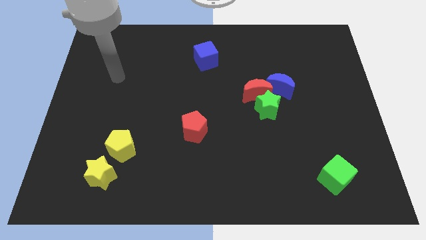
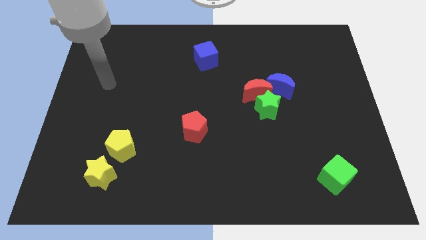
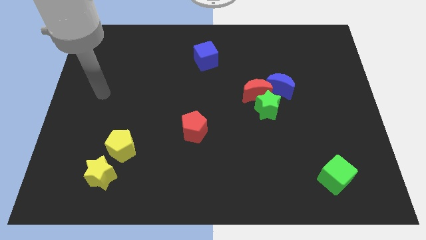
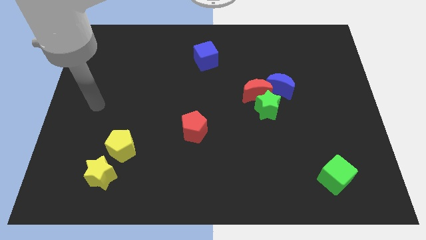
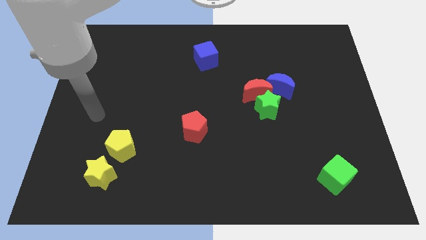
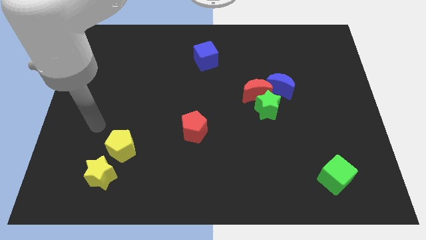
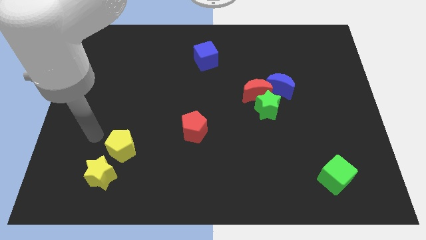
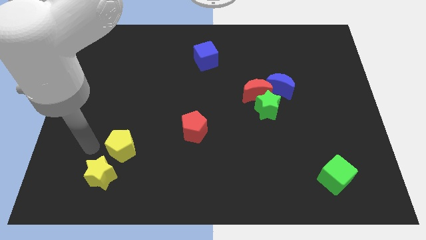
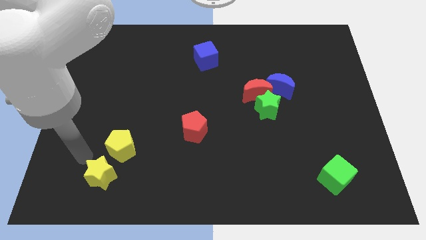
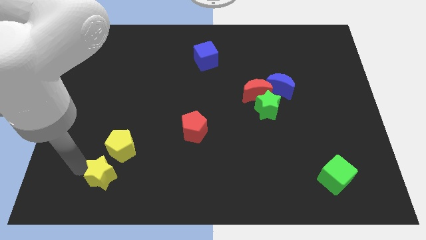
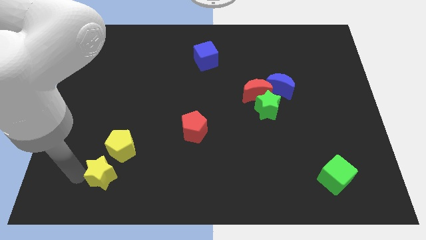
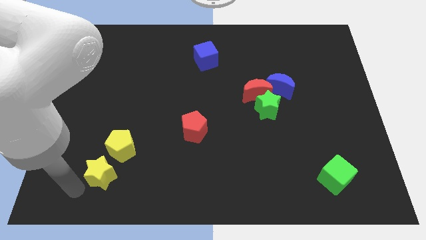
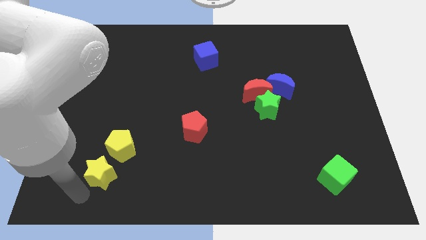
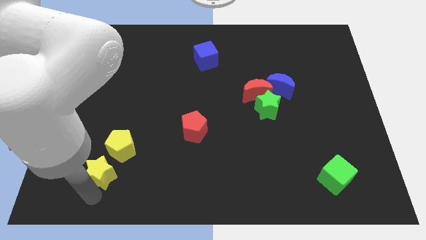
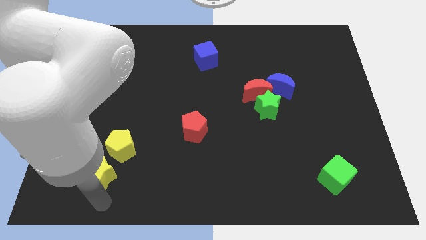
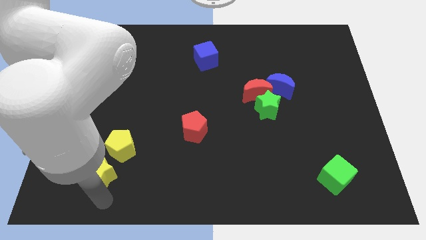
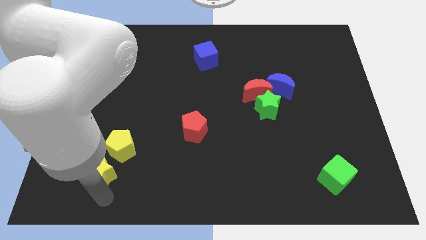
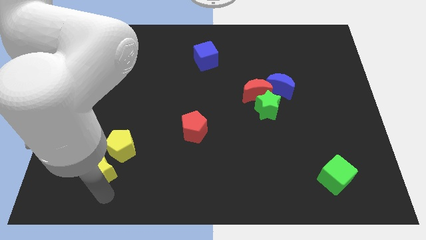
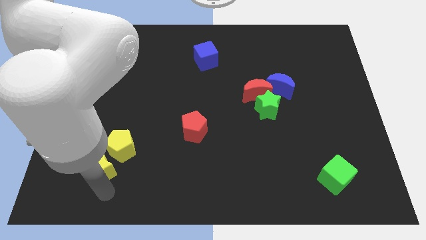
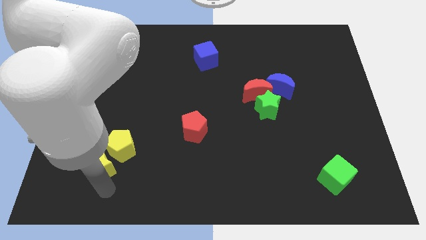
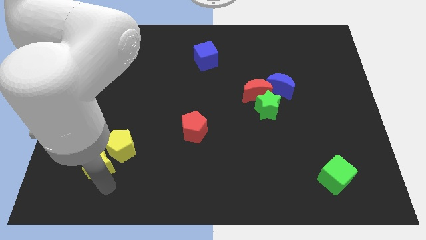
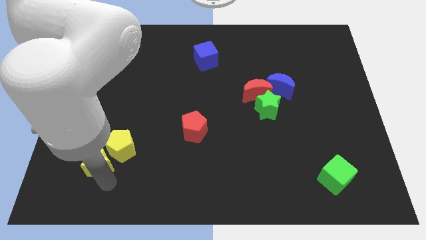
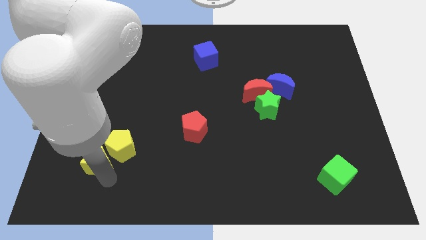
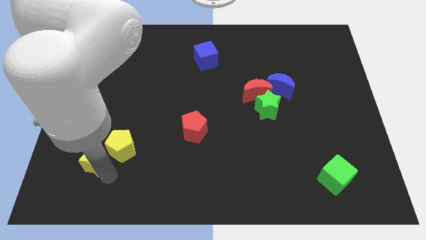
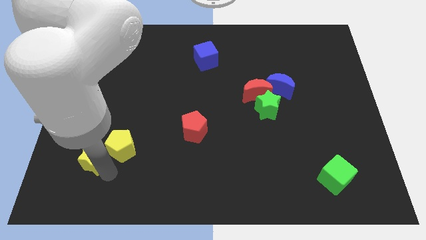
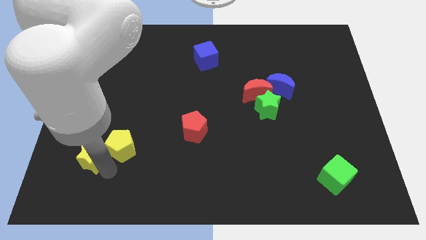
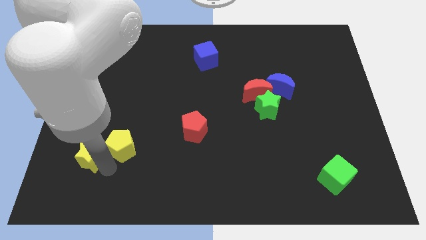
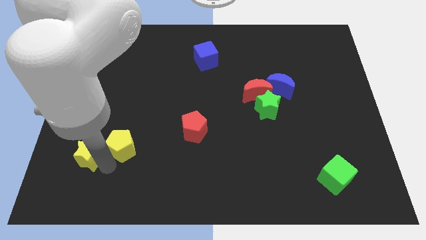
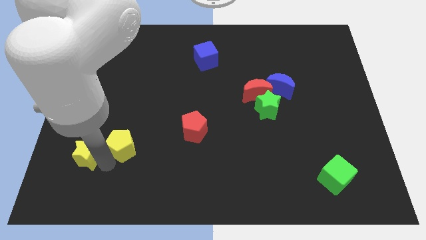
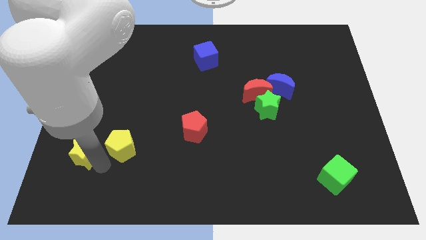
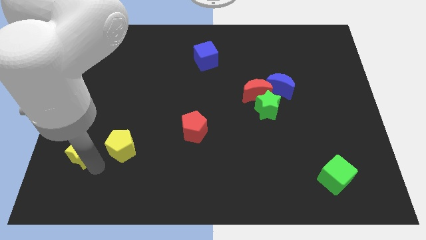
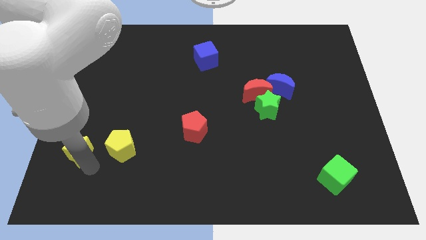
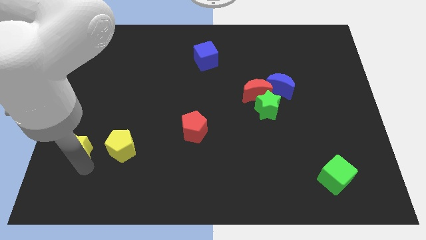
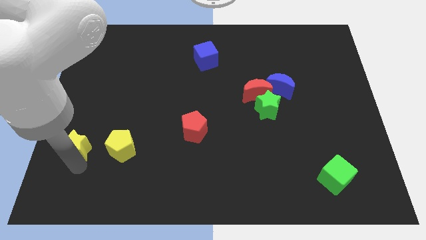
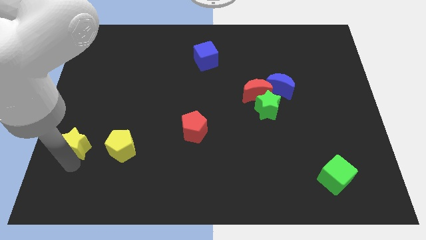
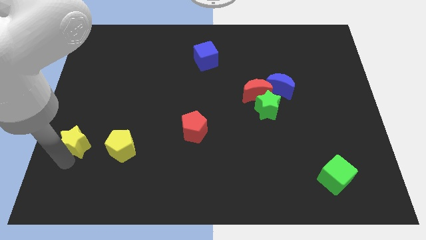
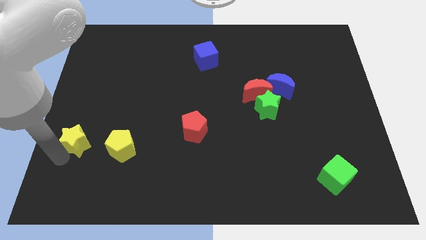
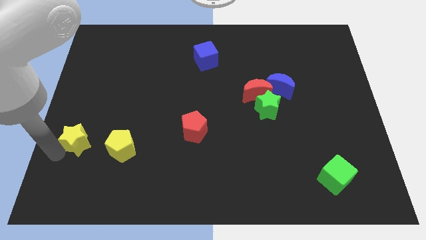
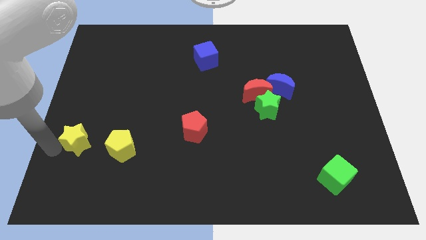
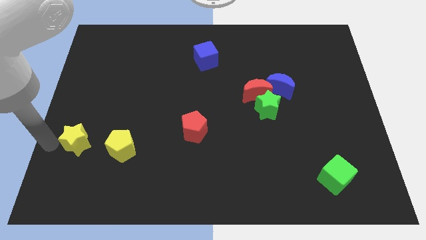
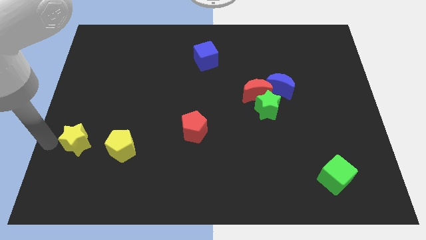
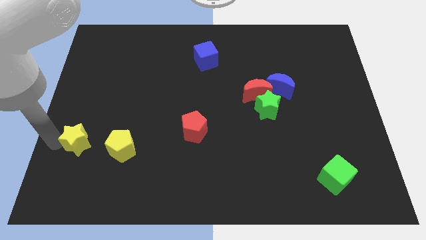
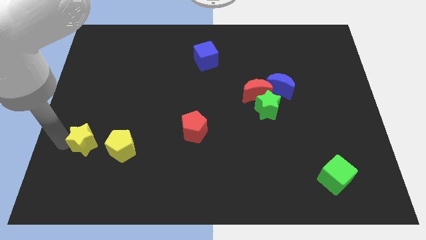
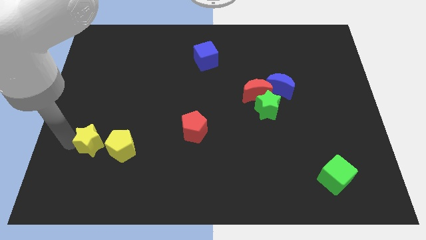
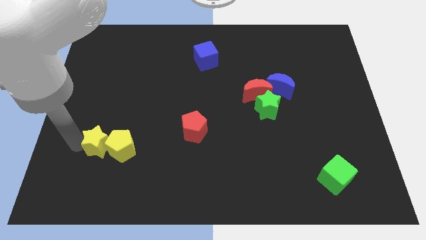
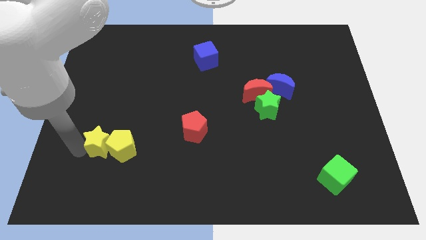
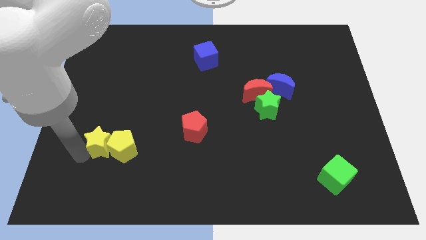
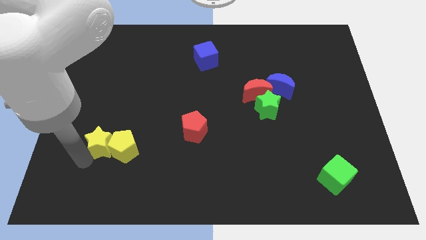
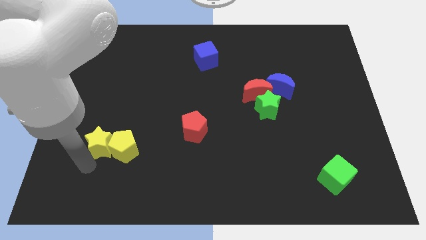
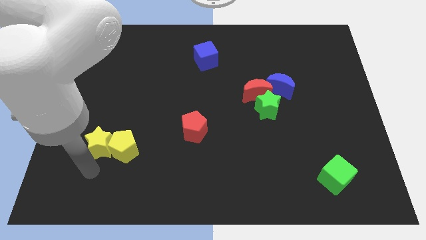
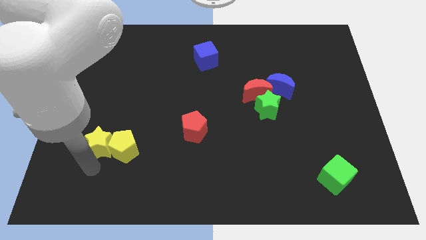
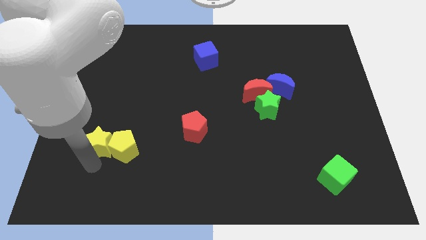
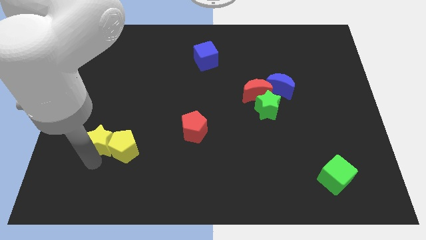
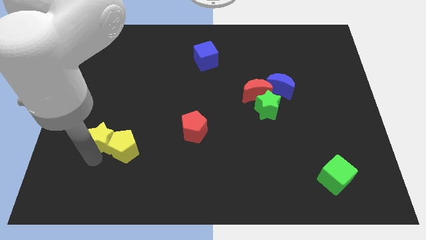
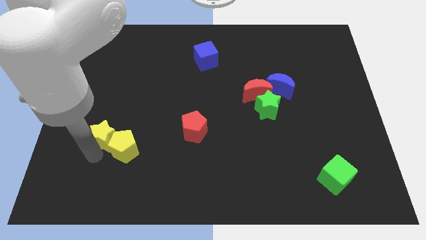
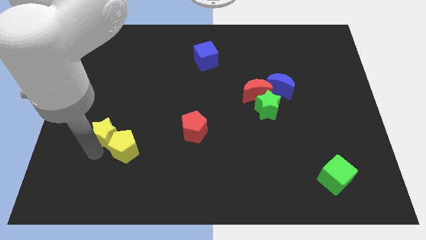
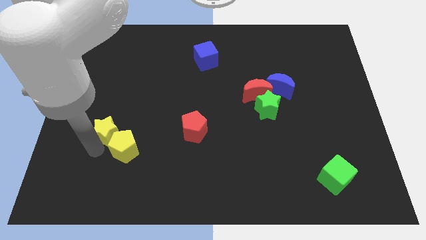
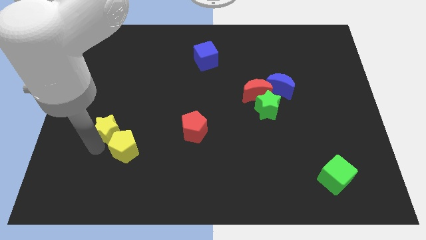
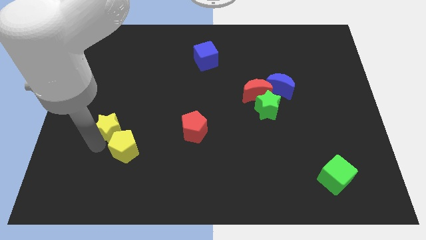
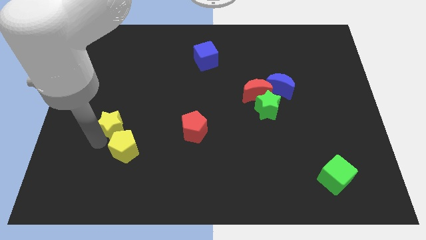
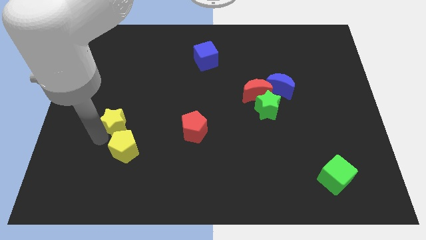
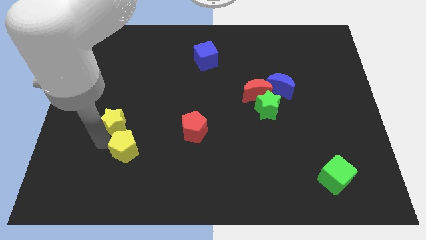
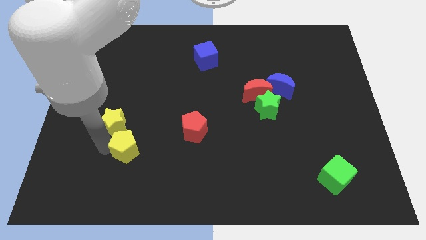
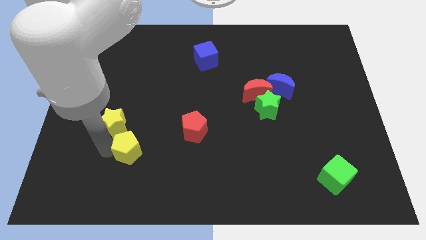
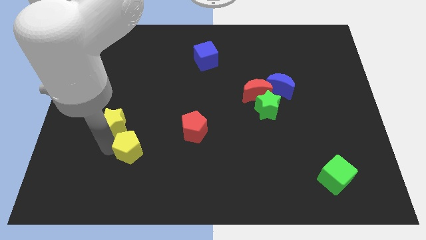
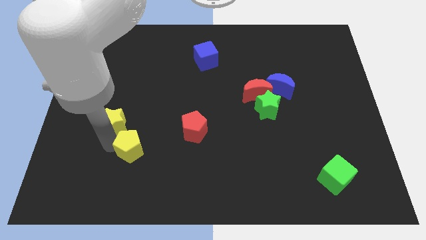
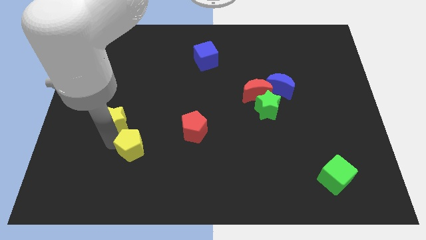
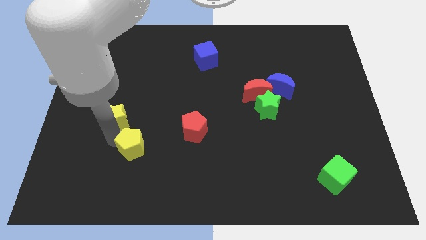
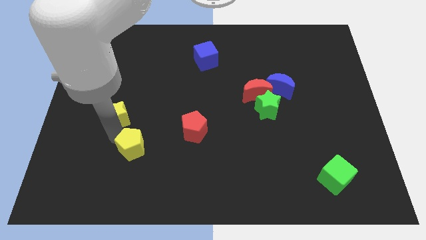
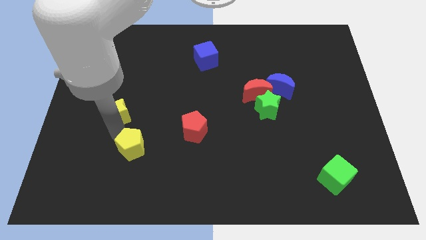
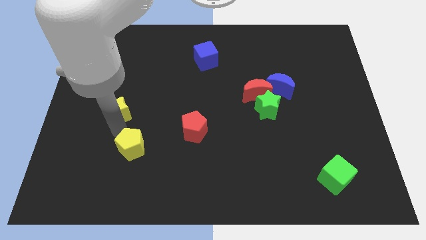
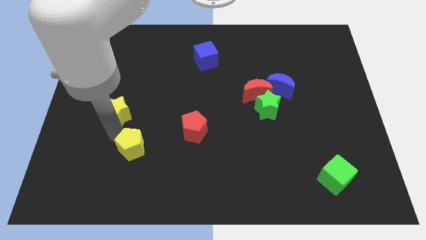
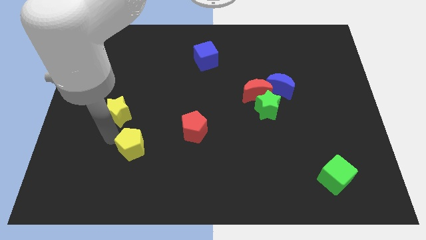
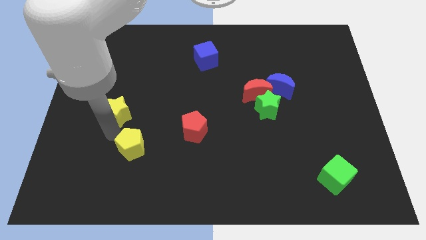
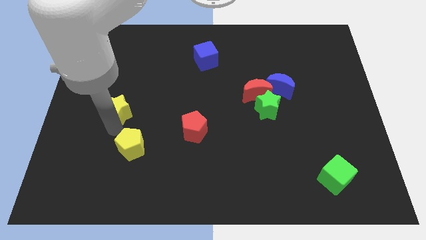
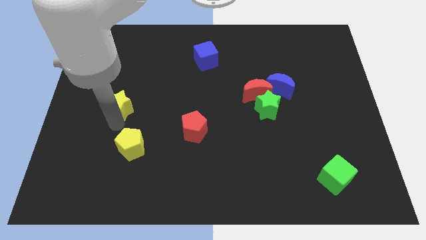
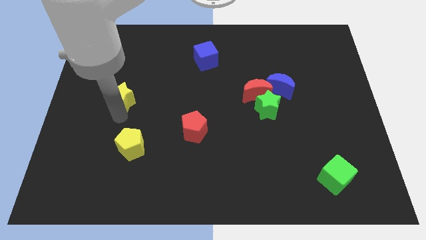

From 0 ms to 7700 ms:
move the yellow star up

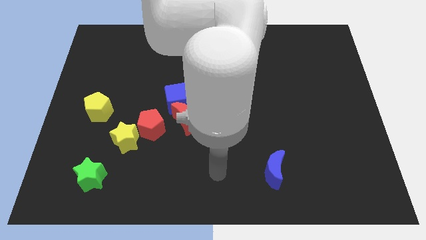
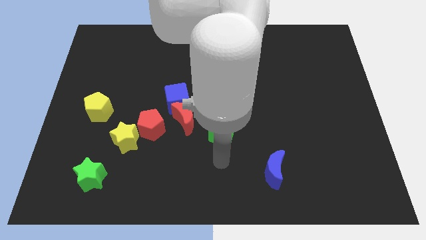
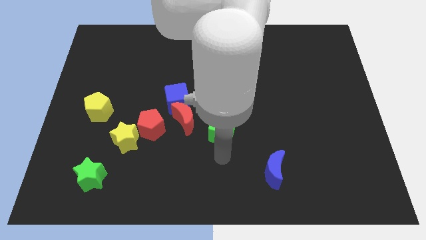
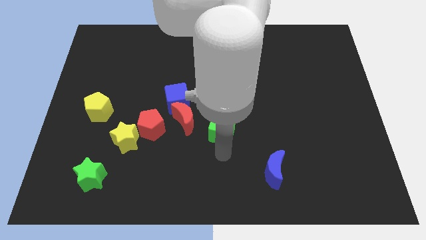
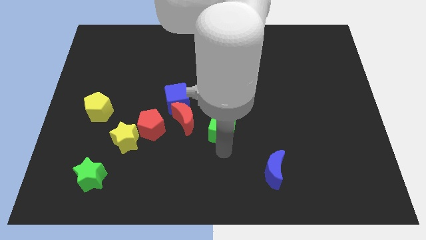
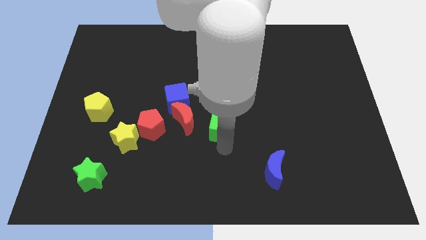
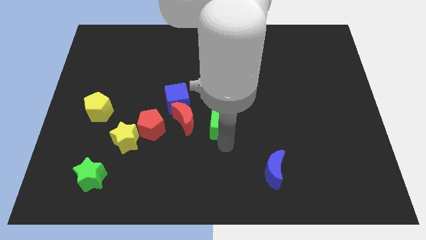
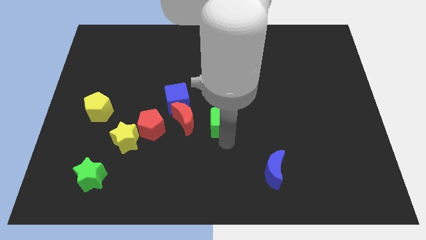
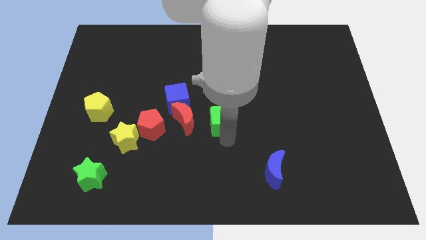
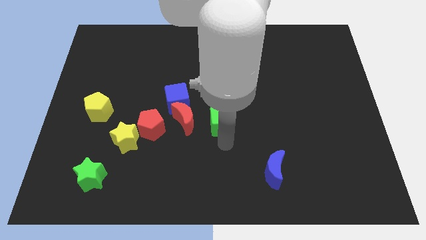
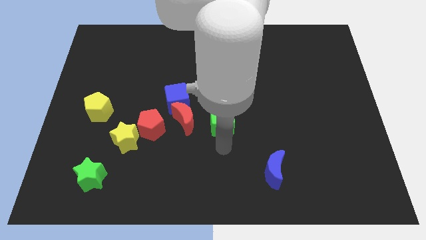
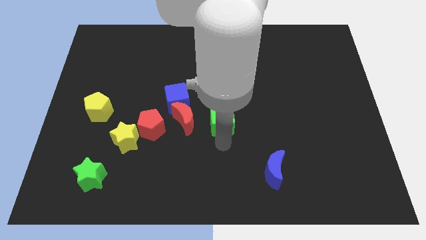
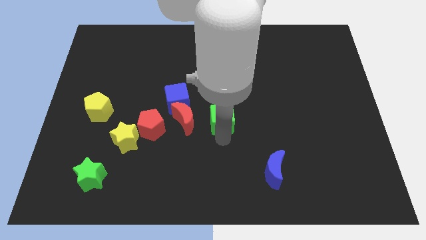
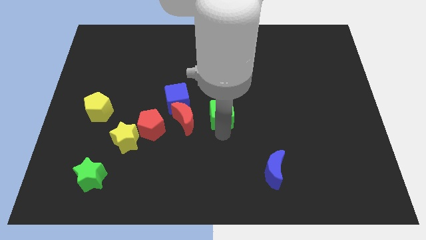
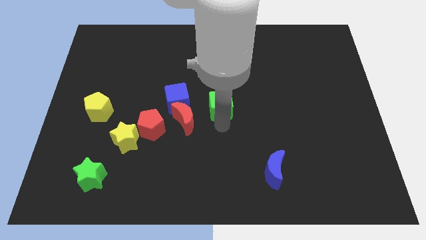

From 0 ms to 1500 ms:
push the green cube up a bit
